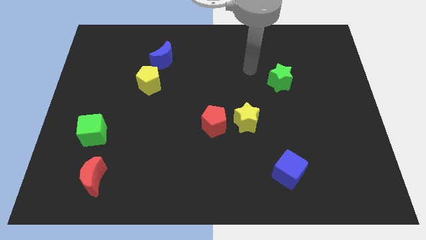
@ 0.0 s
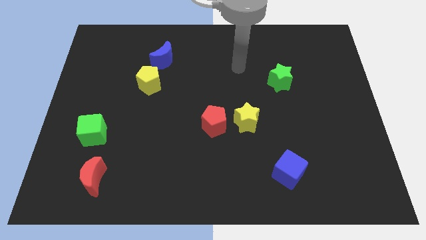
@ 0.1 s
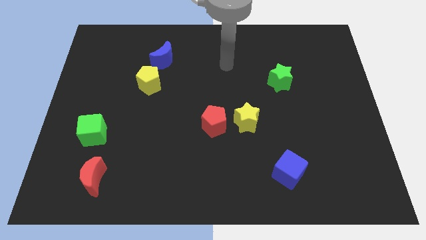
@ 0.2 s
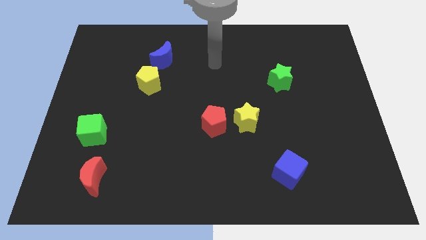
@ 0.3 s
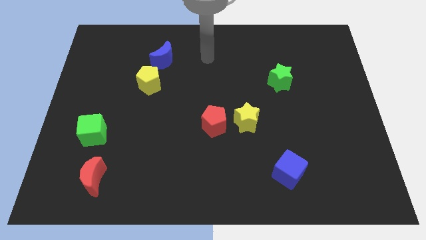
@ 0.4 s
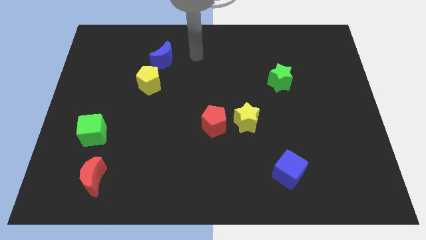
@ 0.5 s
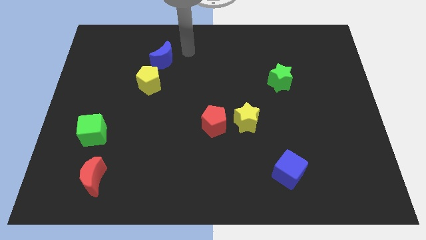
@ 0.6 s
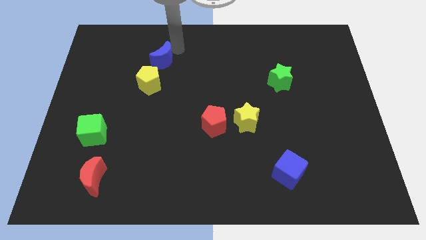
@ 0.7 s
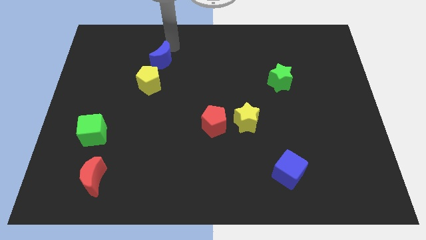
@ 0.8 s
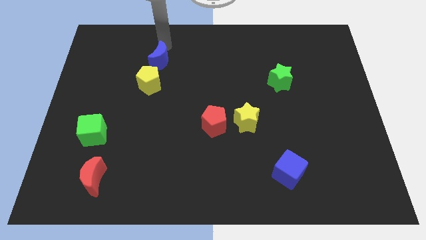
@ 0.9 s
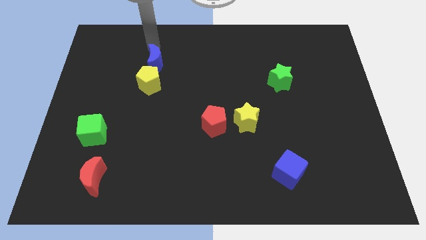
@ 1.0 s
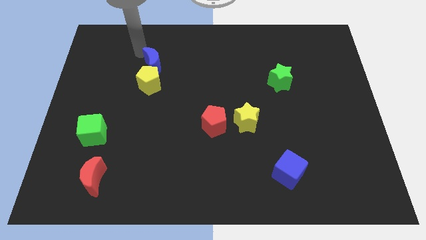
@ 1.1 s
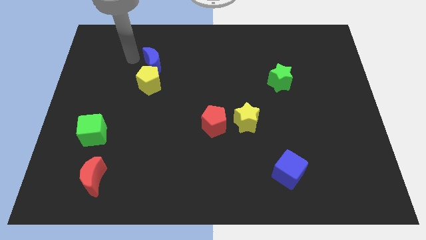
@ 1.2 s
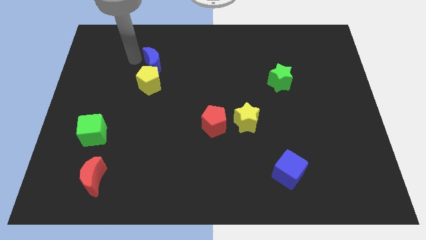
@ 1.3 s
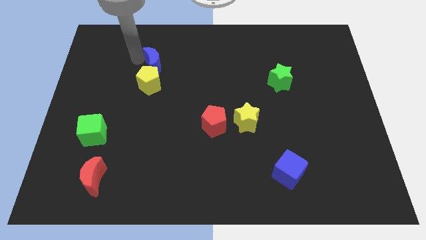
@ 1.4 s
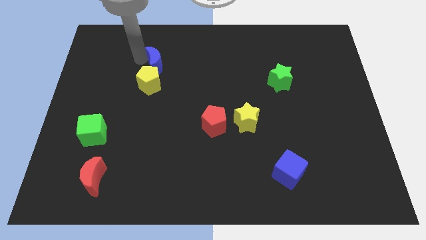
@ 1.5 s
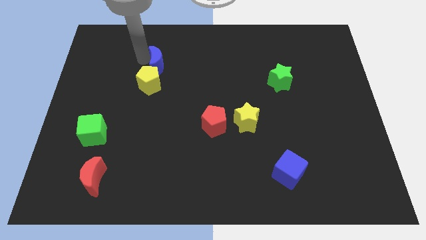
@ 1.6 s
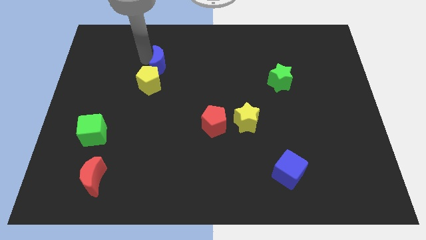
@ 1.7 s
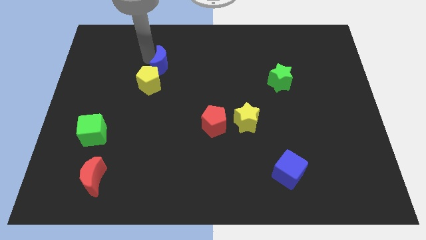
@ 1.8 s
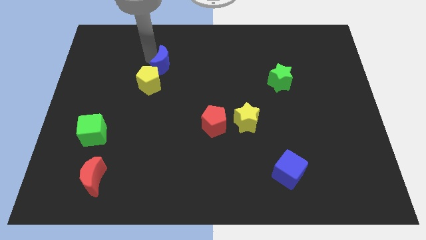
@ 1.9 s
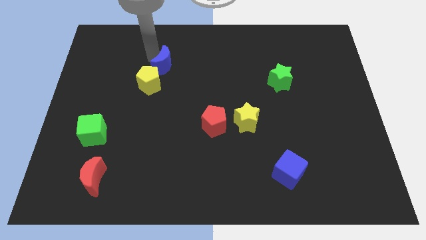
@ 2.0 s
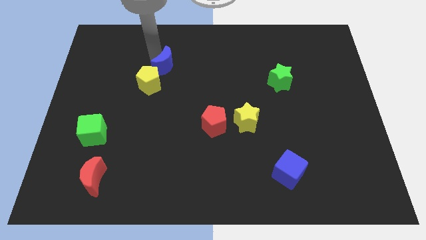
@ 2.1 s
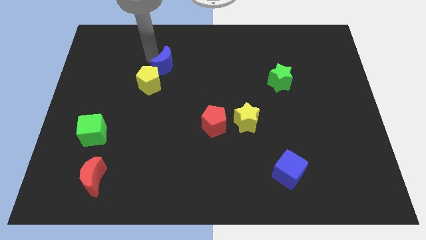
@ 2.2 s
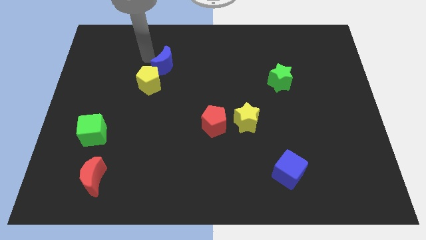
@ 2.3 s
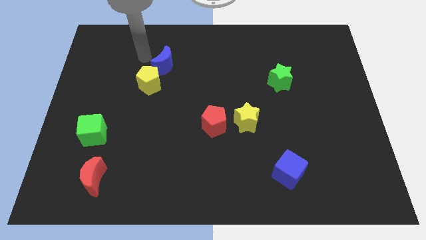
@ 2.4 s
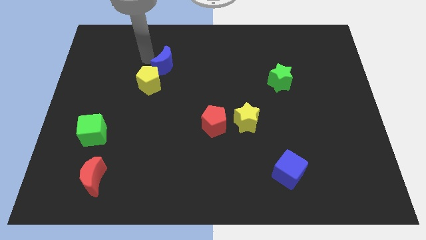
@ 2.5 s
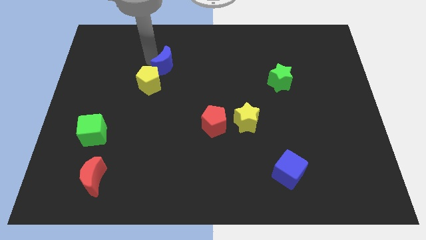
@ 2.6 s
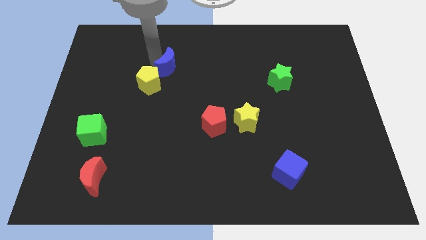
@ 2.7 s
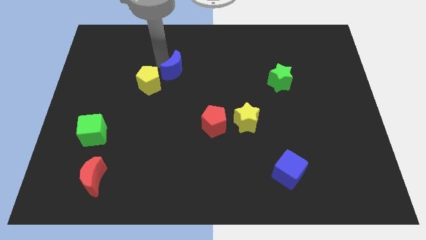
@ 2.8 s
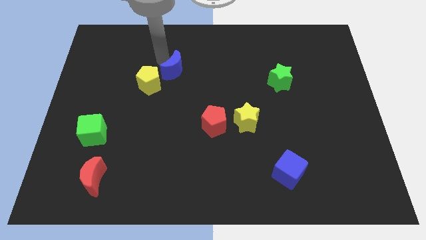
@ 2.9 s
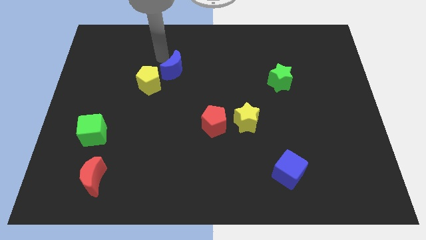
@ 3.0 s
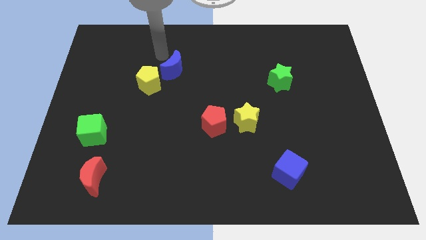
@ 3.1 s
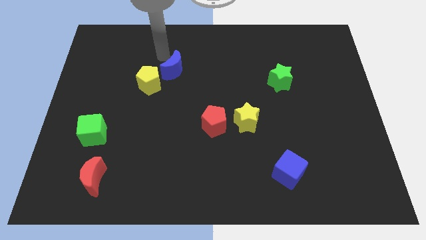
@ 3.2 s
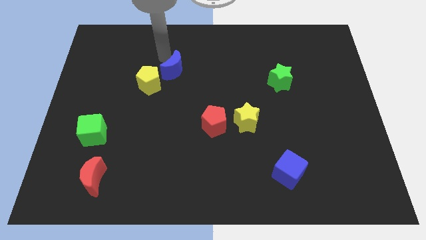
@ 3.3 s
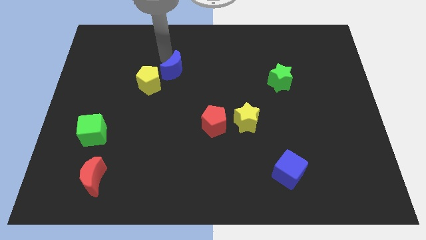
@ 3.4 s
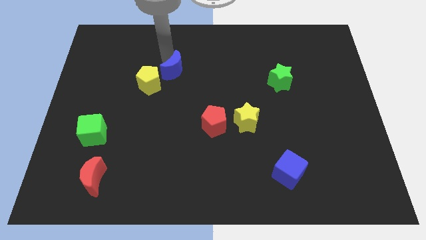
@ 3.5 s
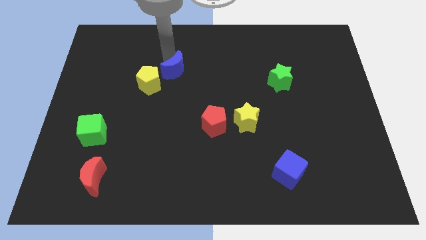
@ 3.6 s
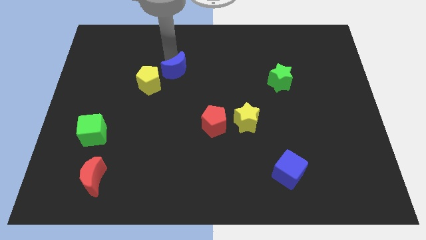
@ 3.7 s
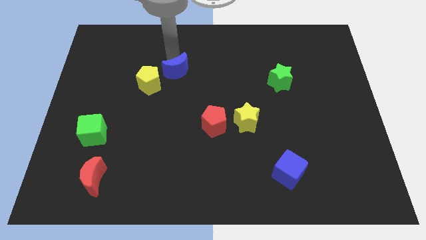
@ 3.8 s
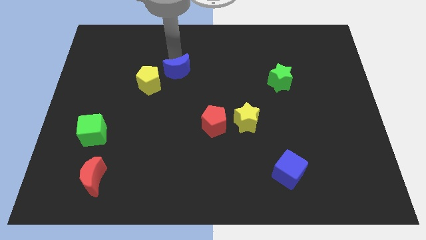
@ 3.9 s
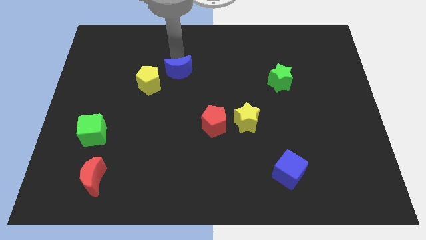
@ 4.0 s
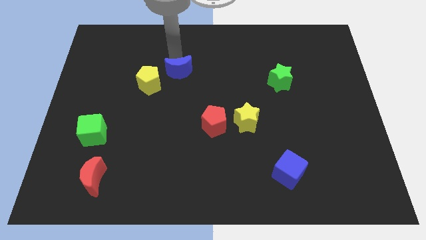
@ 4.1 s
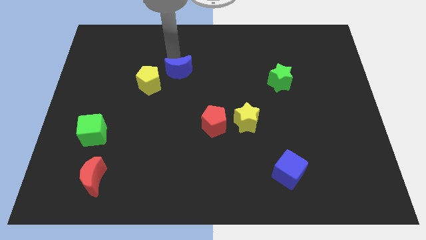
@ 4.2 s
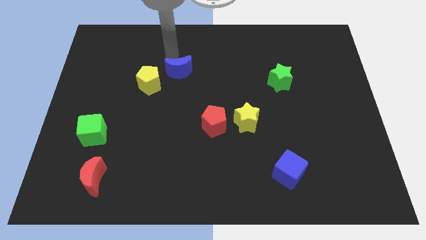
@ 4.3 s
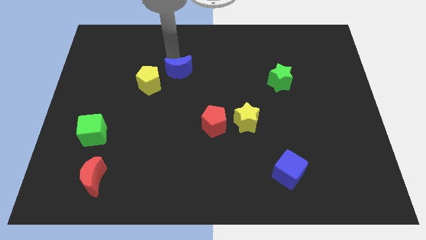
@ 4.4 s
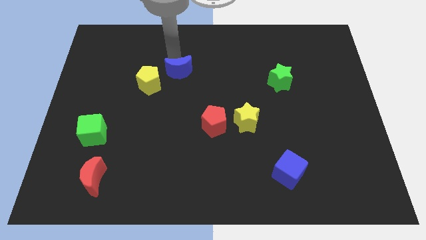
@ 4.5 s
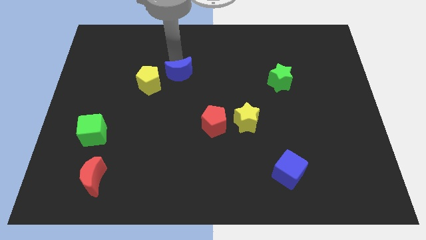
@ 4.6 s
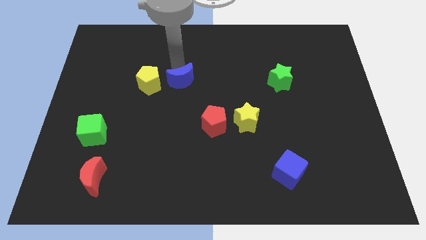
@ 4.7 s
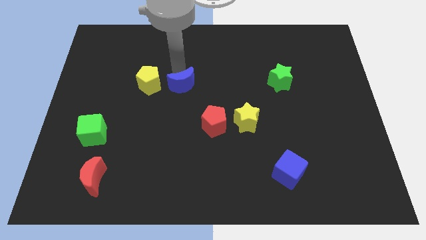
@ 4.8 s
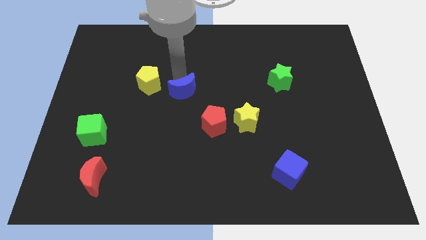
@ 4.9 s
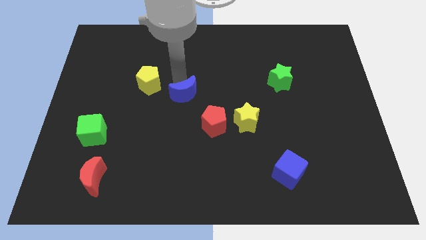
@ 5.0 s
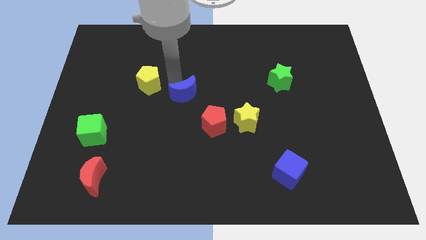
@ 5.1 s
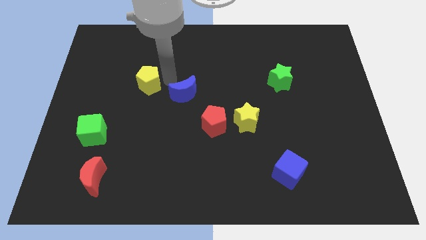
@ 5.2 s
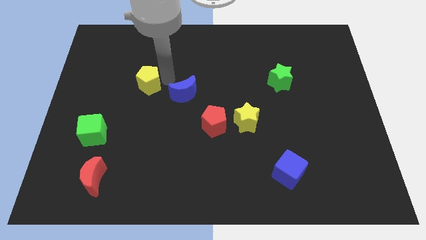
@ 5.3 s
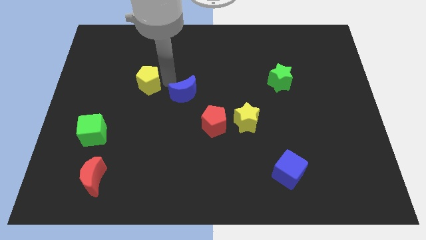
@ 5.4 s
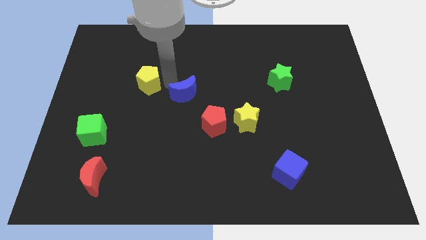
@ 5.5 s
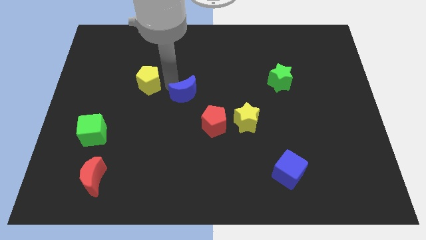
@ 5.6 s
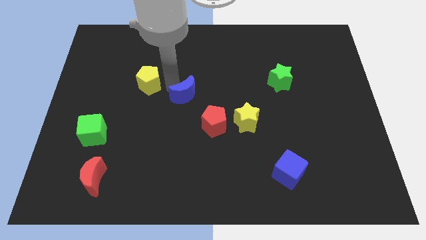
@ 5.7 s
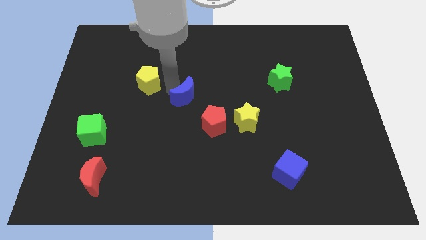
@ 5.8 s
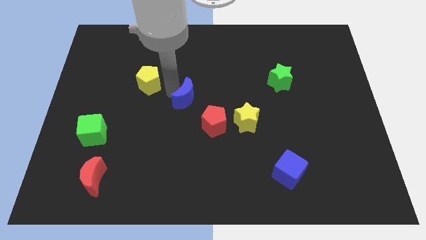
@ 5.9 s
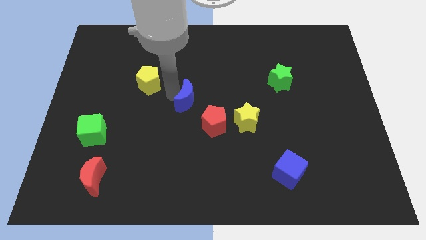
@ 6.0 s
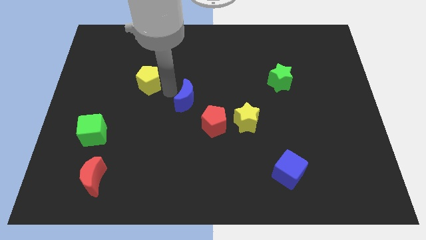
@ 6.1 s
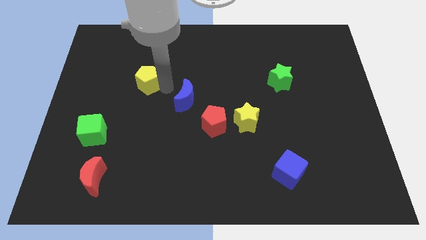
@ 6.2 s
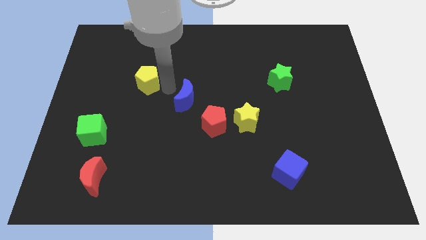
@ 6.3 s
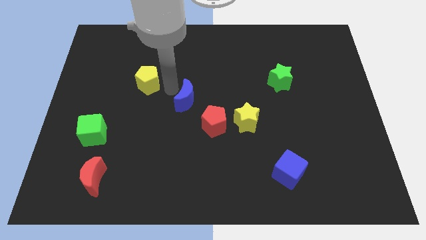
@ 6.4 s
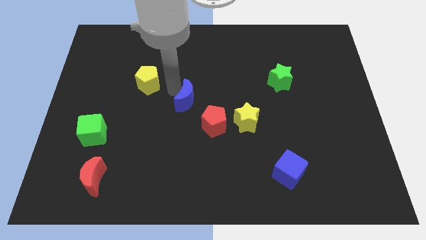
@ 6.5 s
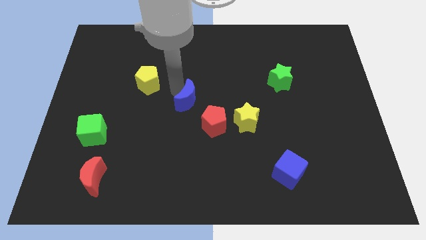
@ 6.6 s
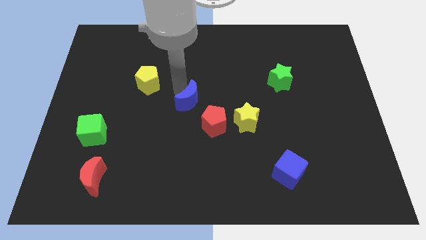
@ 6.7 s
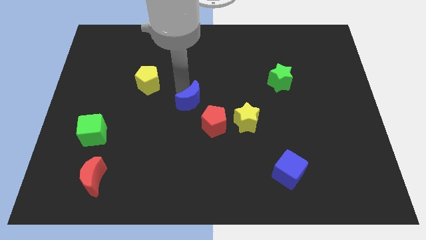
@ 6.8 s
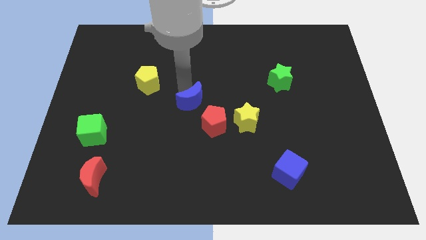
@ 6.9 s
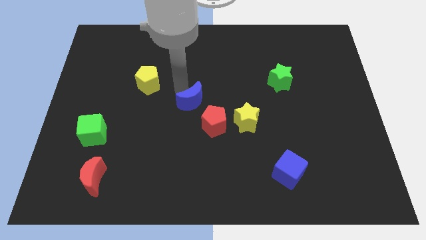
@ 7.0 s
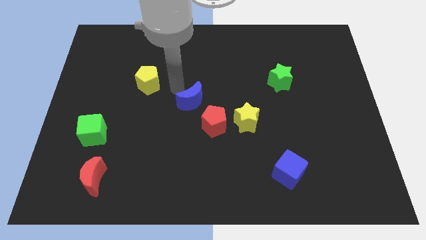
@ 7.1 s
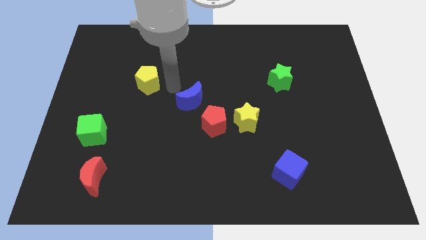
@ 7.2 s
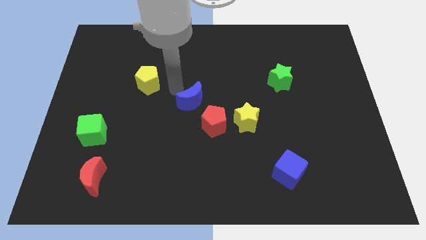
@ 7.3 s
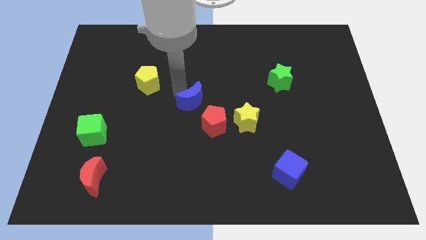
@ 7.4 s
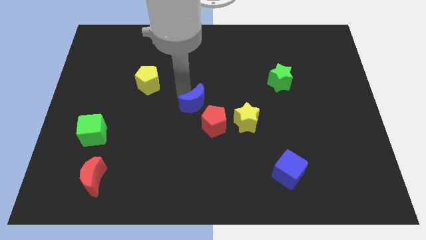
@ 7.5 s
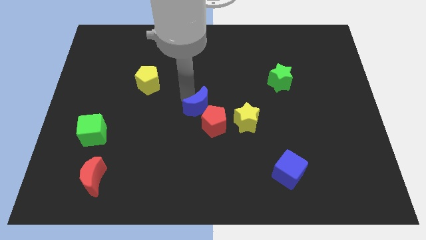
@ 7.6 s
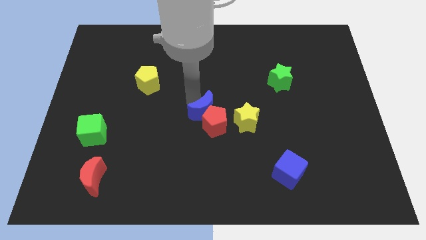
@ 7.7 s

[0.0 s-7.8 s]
put the blue moon next to the red pentagon
